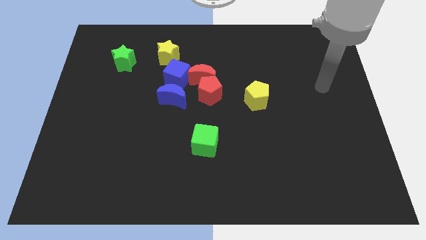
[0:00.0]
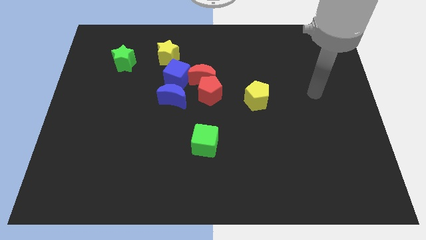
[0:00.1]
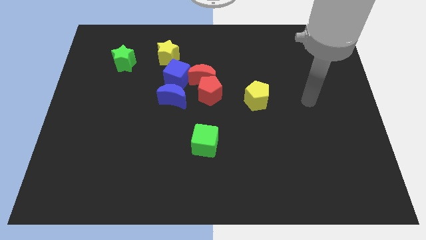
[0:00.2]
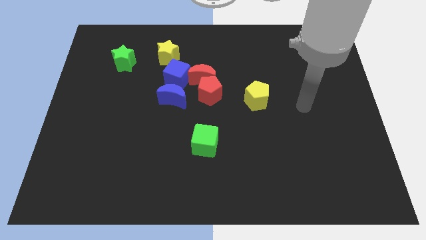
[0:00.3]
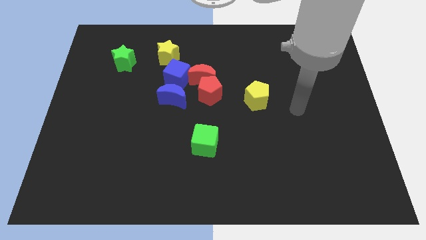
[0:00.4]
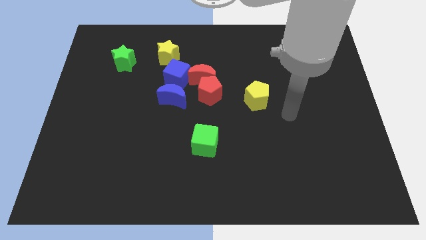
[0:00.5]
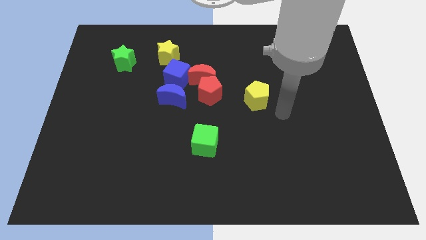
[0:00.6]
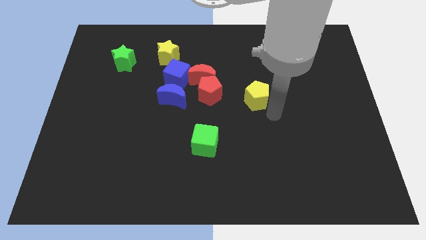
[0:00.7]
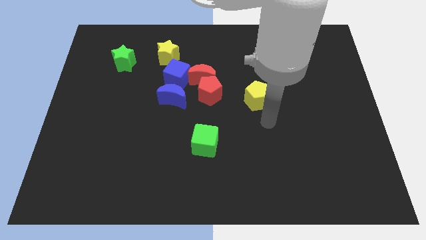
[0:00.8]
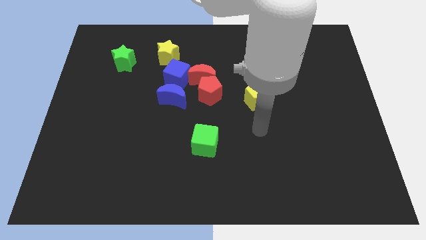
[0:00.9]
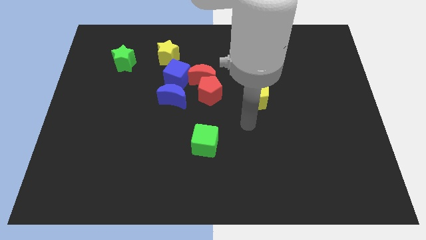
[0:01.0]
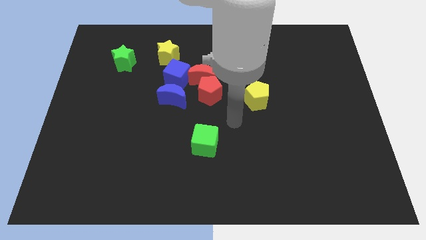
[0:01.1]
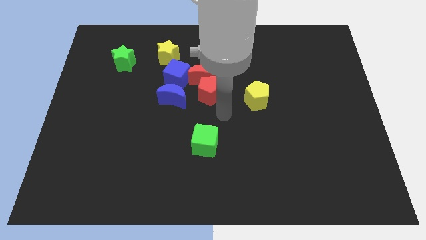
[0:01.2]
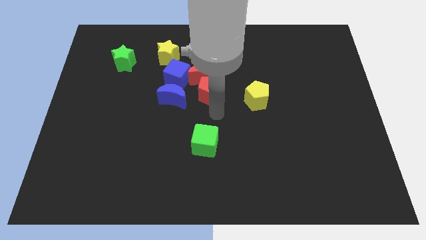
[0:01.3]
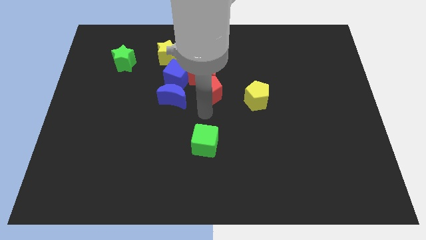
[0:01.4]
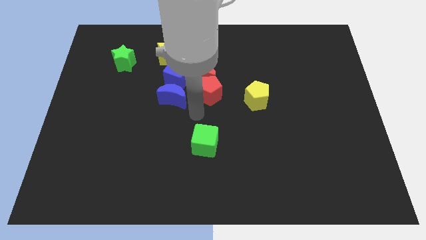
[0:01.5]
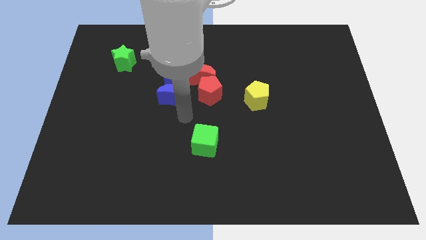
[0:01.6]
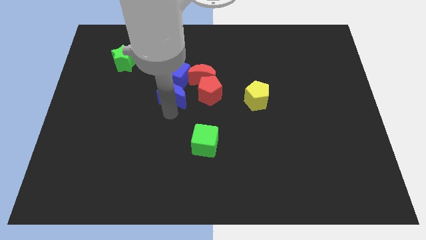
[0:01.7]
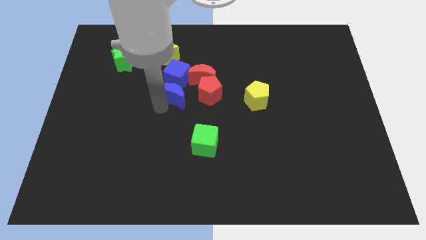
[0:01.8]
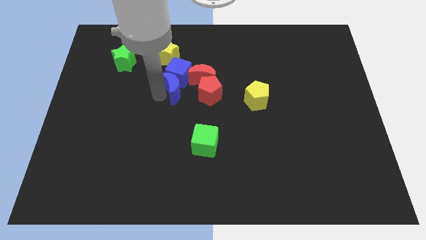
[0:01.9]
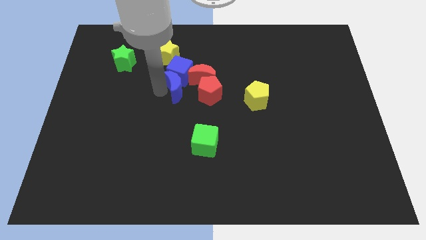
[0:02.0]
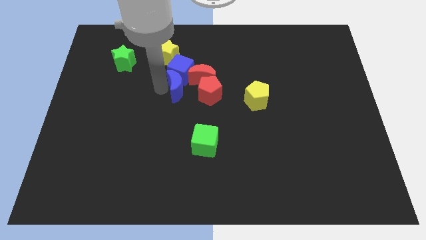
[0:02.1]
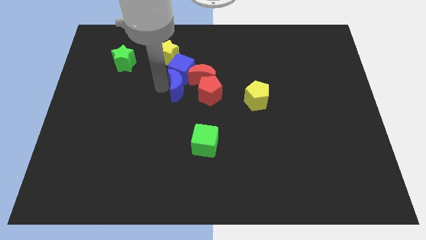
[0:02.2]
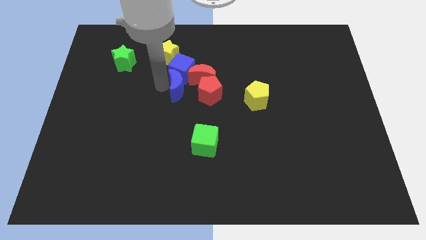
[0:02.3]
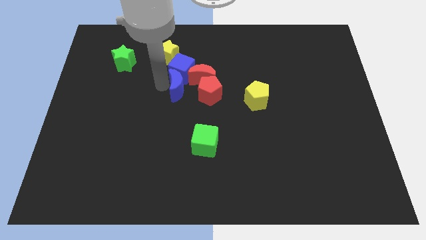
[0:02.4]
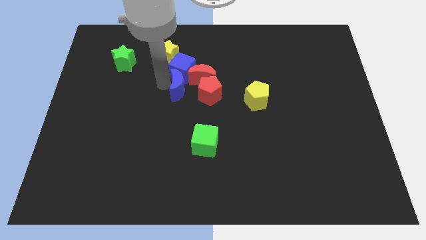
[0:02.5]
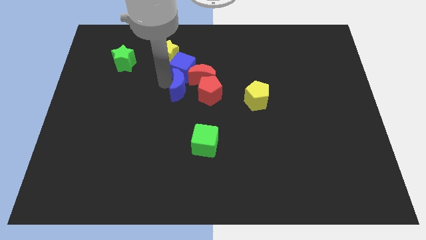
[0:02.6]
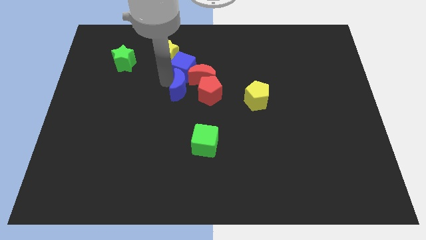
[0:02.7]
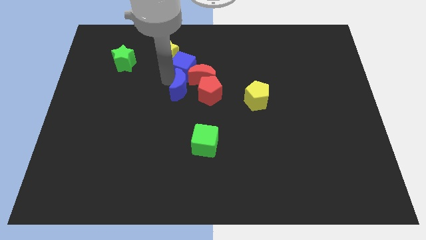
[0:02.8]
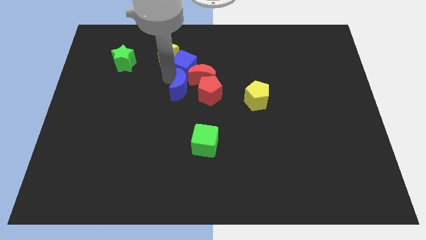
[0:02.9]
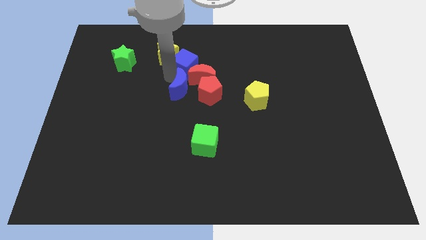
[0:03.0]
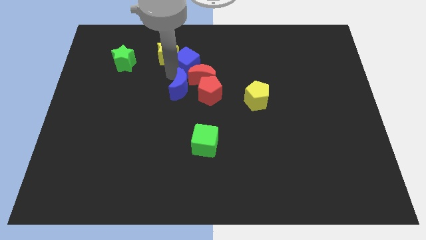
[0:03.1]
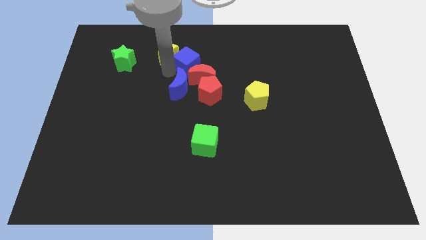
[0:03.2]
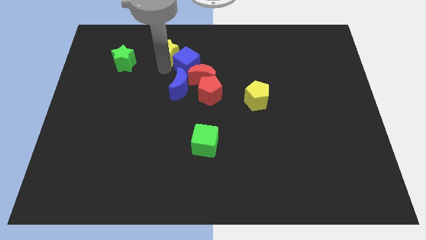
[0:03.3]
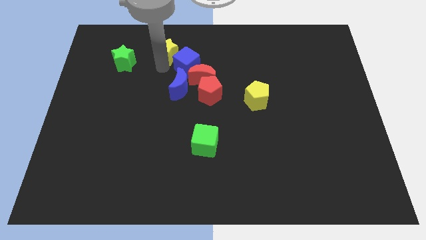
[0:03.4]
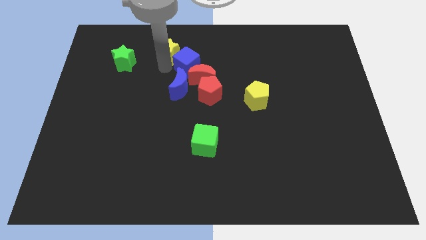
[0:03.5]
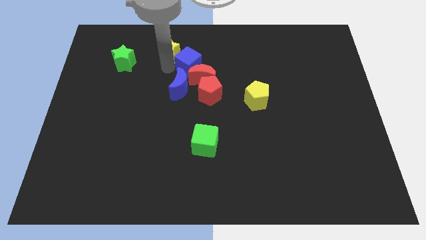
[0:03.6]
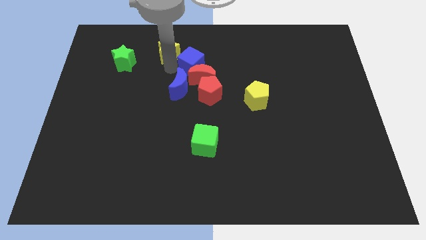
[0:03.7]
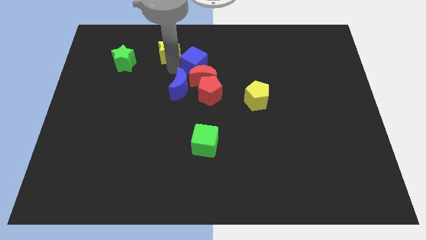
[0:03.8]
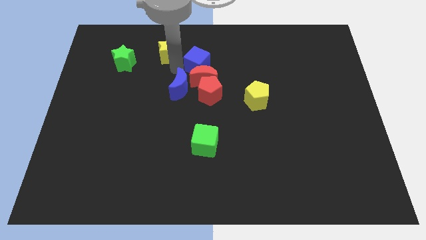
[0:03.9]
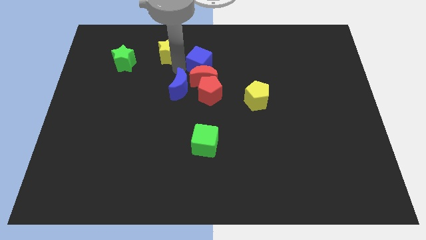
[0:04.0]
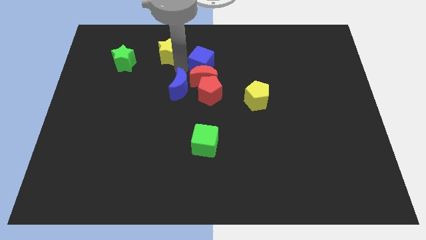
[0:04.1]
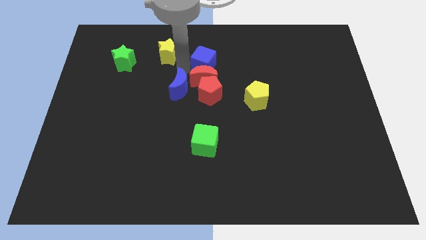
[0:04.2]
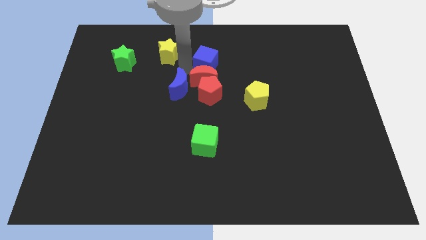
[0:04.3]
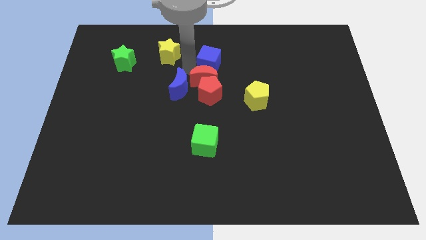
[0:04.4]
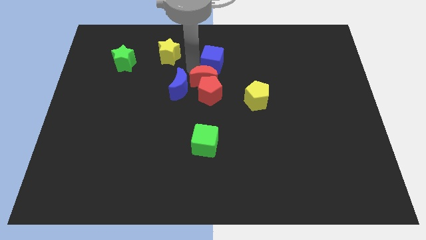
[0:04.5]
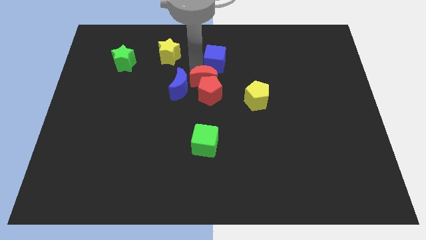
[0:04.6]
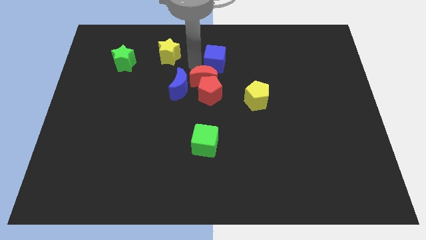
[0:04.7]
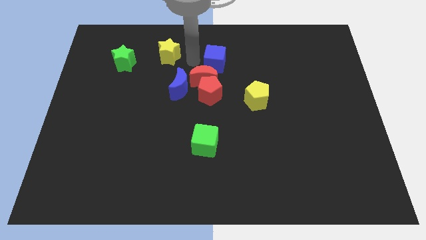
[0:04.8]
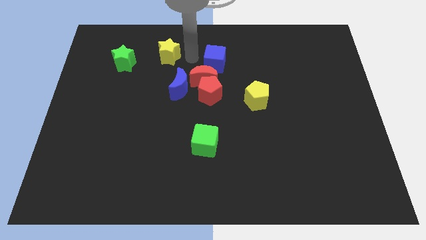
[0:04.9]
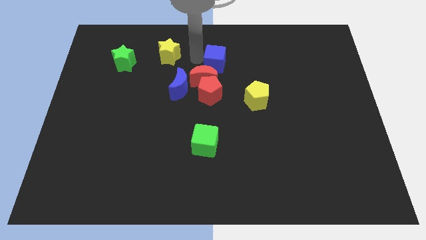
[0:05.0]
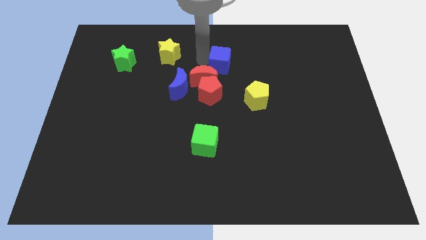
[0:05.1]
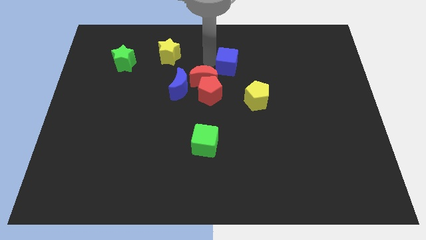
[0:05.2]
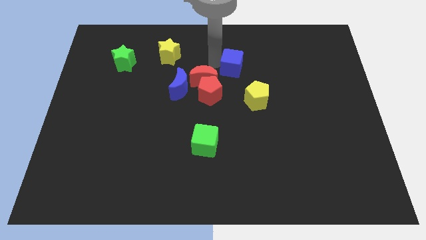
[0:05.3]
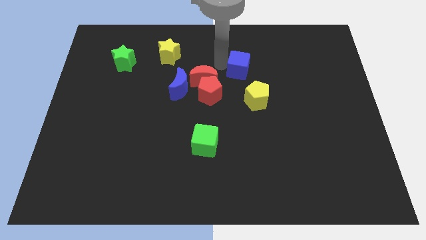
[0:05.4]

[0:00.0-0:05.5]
move the blue cube to the top of the yellow pentagon

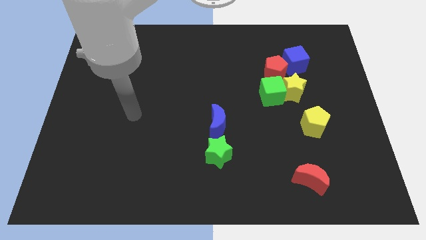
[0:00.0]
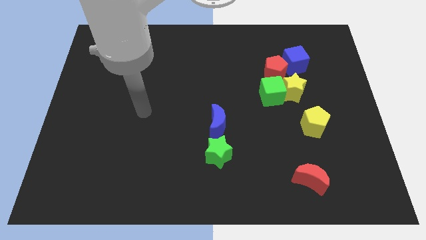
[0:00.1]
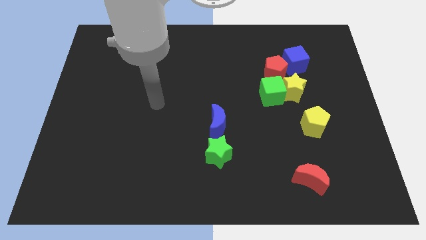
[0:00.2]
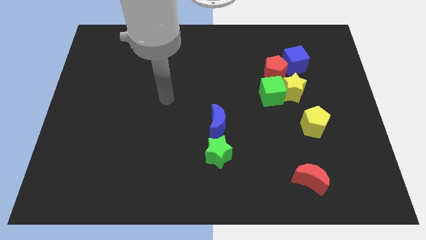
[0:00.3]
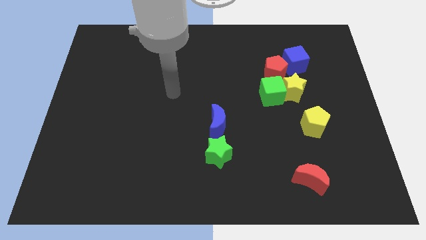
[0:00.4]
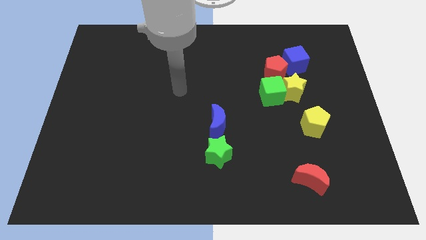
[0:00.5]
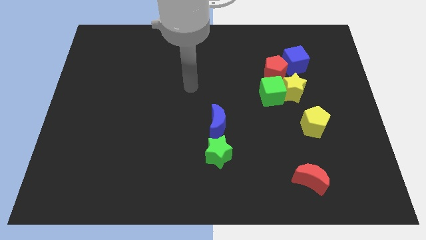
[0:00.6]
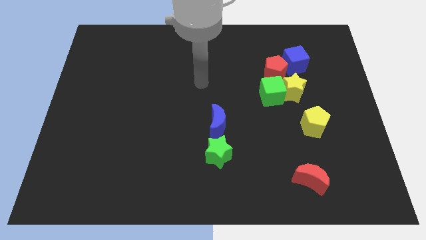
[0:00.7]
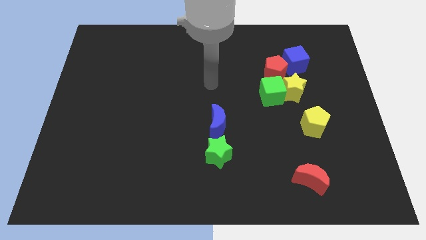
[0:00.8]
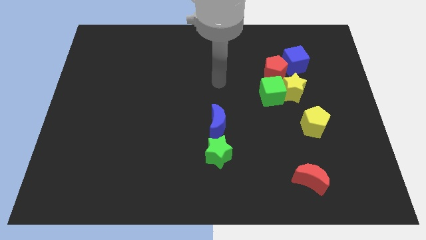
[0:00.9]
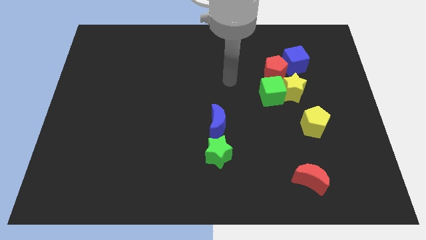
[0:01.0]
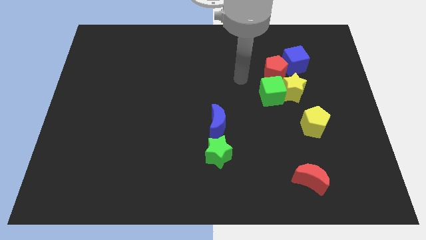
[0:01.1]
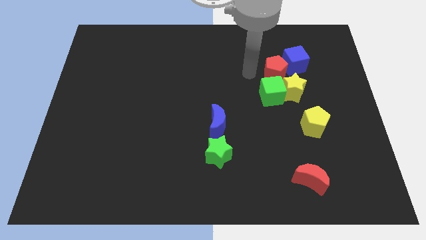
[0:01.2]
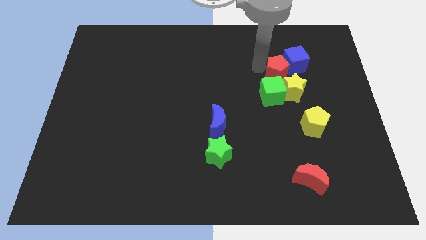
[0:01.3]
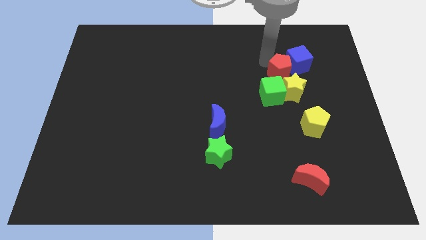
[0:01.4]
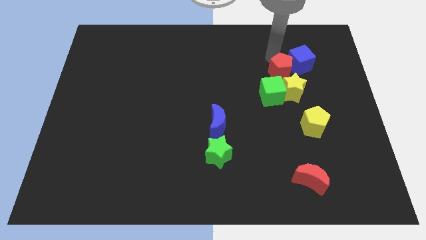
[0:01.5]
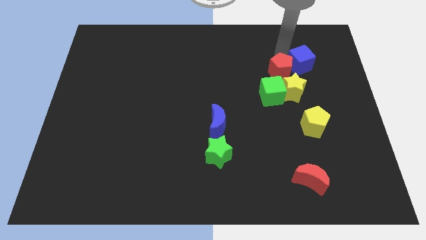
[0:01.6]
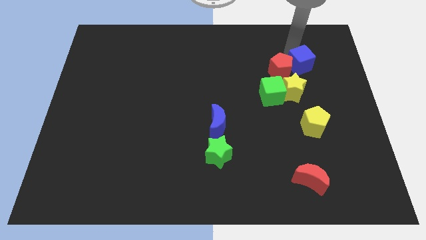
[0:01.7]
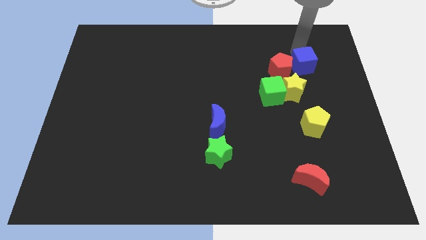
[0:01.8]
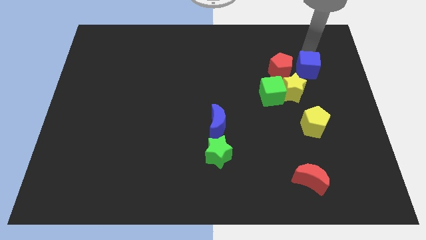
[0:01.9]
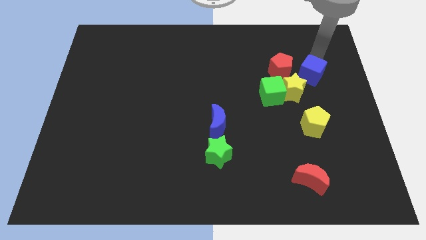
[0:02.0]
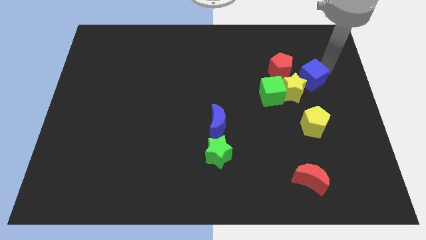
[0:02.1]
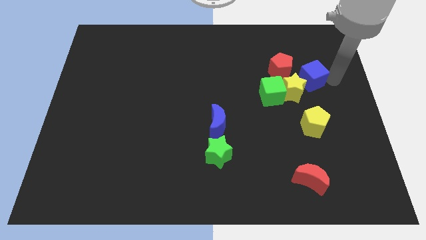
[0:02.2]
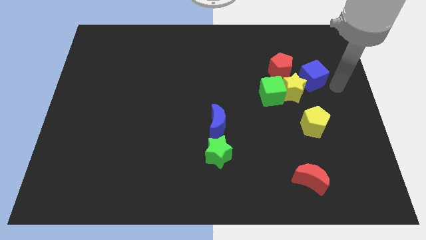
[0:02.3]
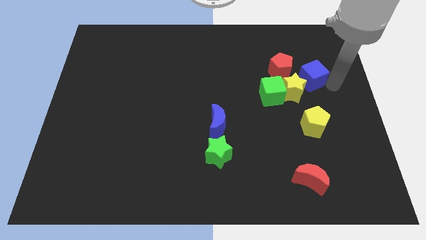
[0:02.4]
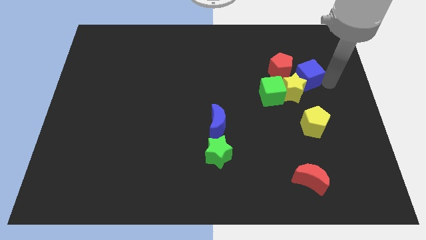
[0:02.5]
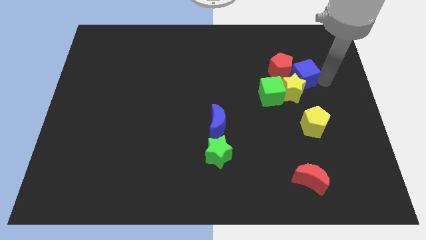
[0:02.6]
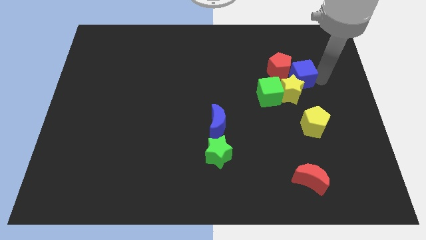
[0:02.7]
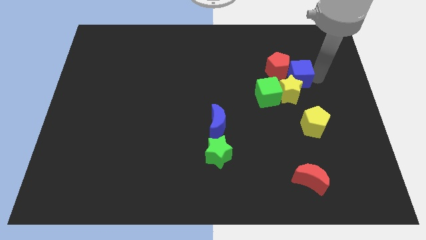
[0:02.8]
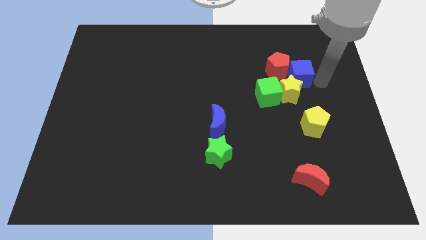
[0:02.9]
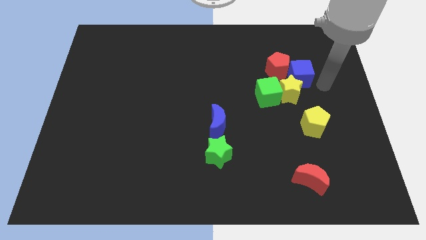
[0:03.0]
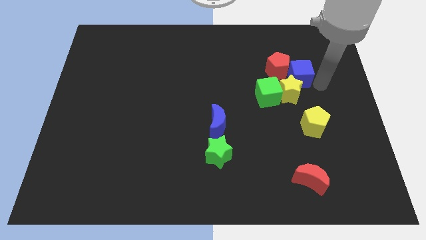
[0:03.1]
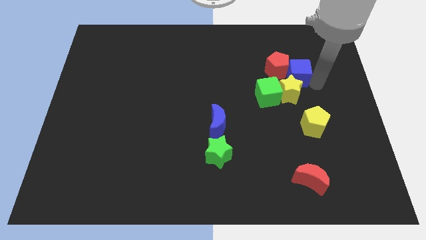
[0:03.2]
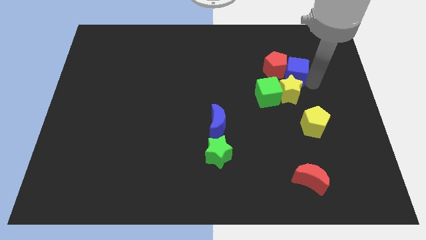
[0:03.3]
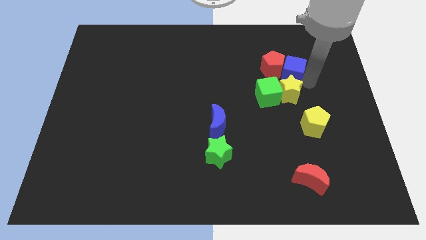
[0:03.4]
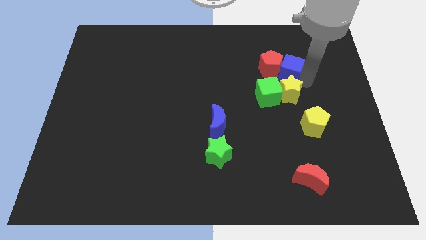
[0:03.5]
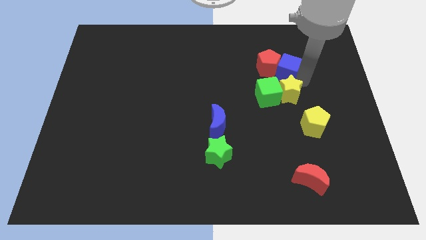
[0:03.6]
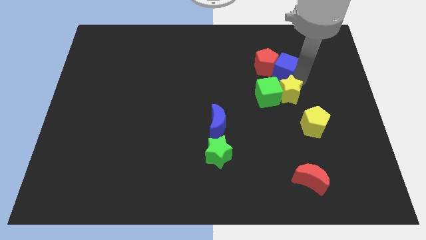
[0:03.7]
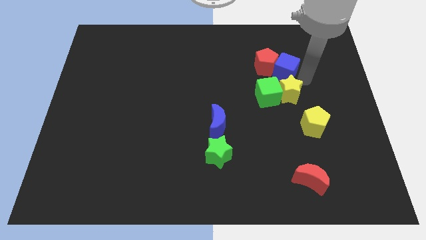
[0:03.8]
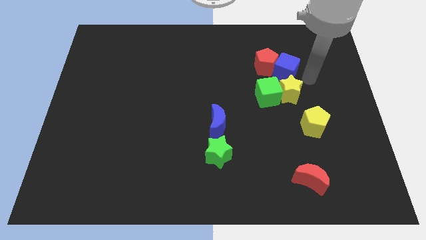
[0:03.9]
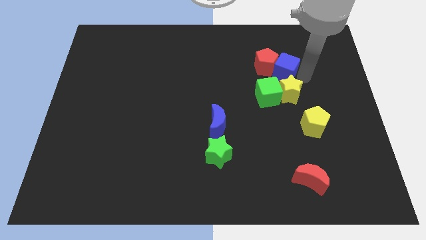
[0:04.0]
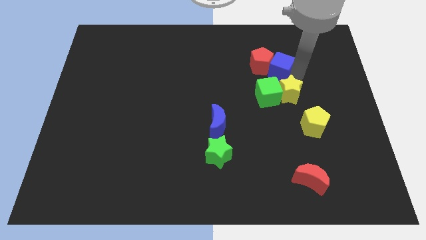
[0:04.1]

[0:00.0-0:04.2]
move the blue cube above the green cube
